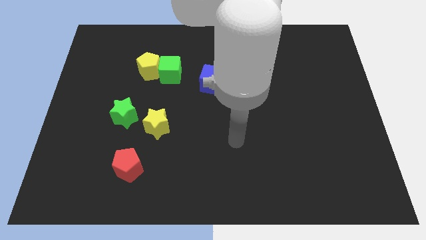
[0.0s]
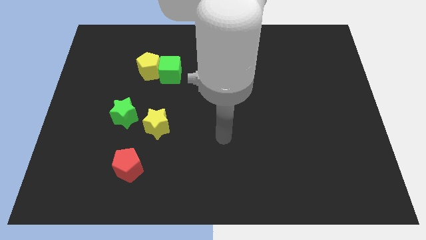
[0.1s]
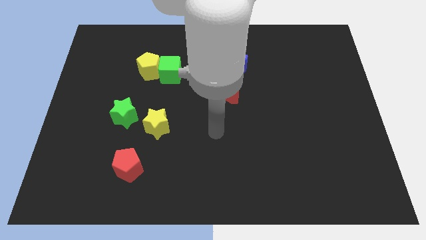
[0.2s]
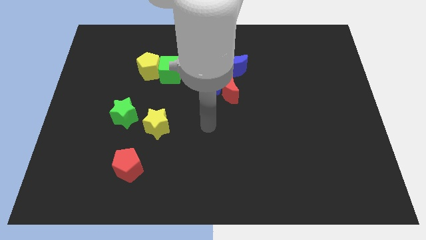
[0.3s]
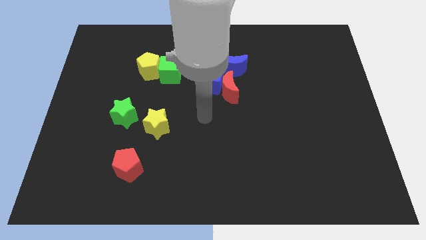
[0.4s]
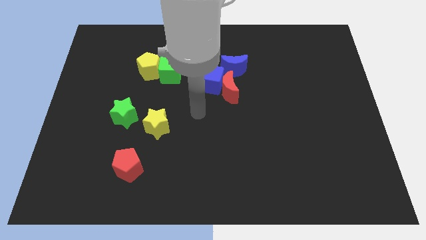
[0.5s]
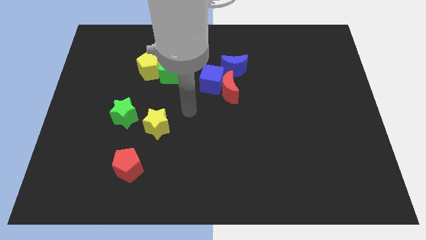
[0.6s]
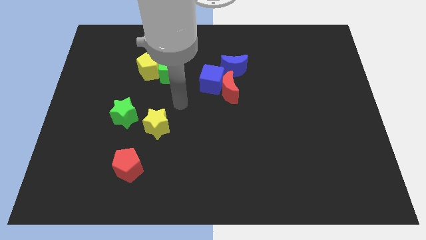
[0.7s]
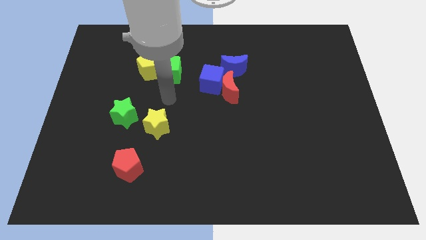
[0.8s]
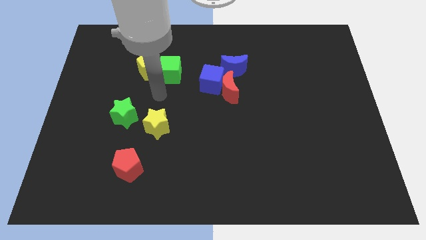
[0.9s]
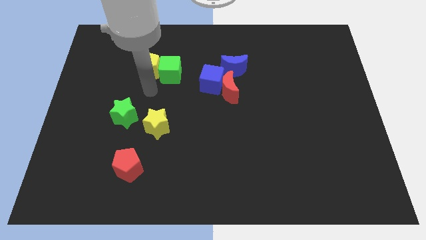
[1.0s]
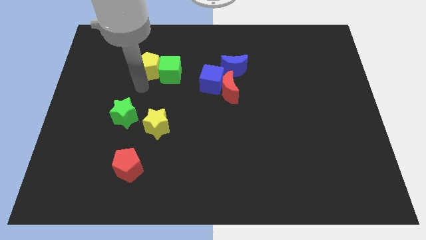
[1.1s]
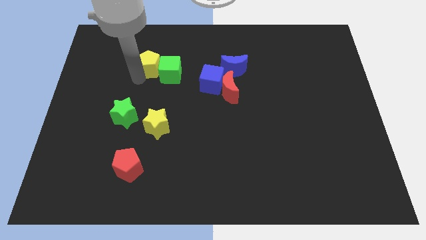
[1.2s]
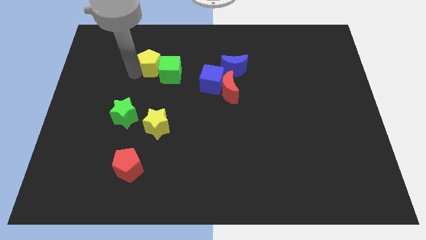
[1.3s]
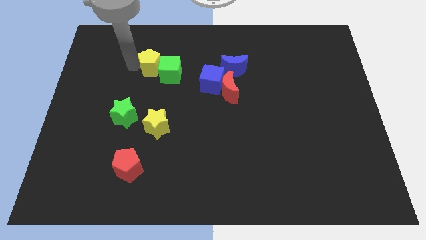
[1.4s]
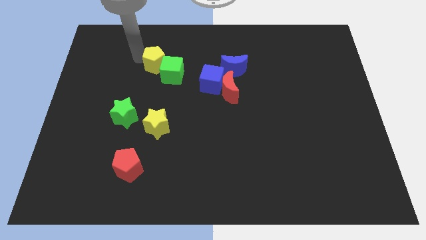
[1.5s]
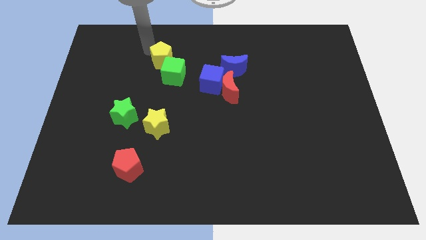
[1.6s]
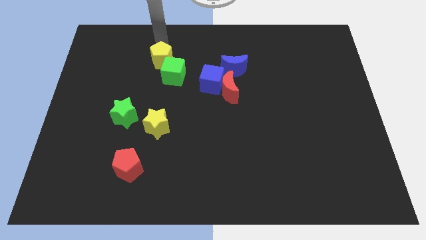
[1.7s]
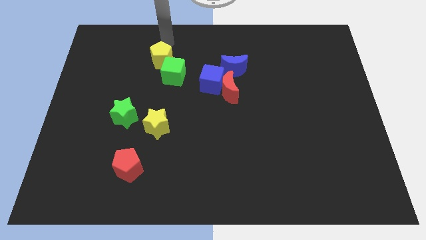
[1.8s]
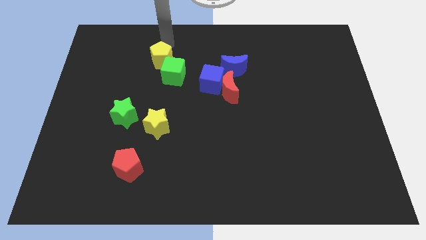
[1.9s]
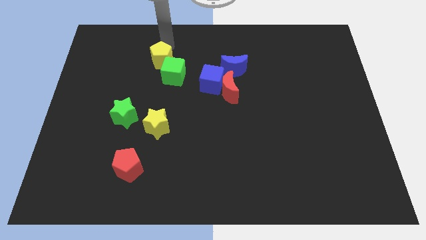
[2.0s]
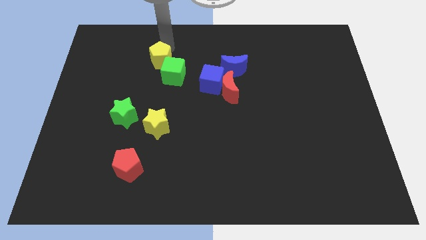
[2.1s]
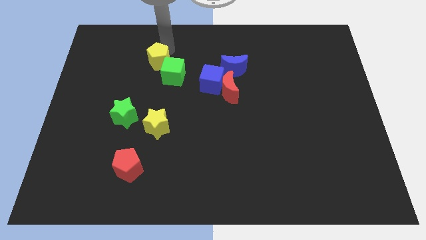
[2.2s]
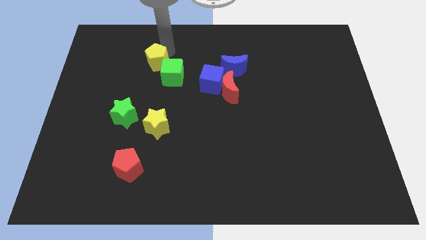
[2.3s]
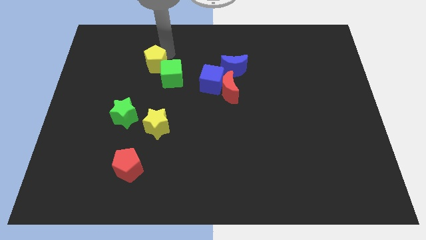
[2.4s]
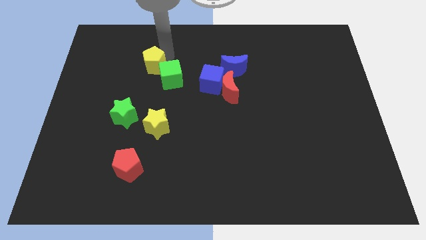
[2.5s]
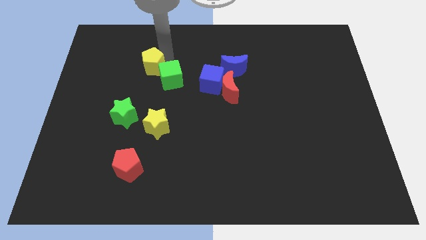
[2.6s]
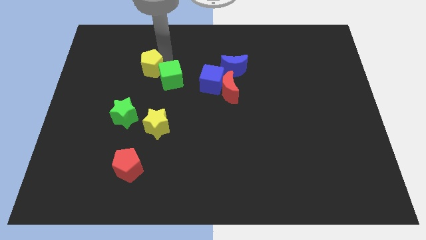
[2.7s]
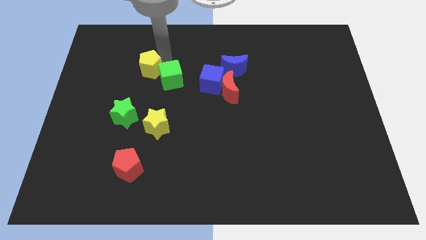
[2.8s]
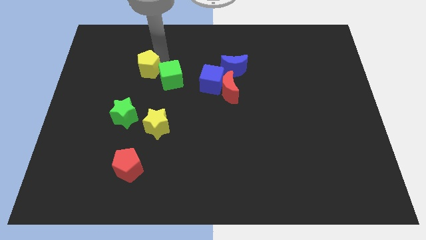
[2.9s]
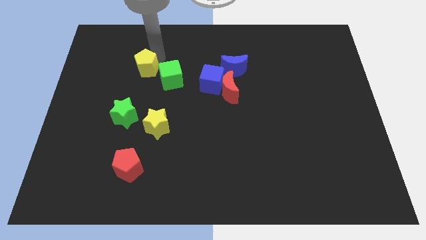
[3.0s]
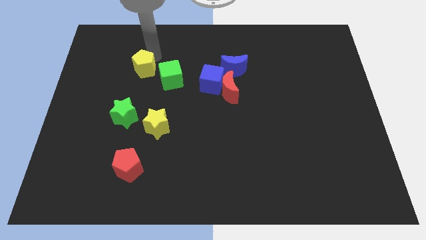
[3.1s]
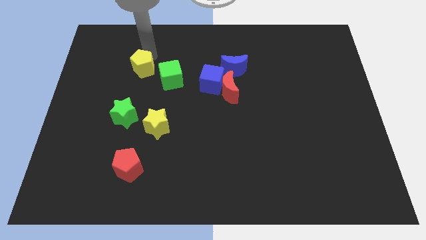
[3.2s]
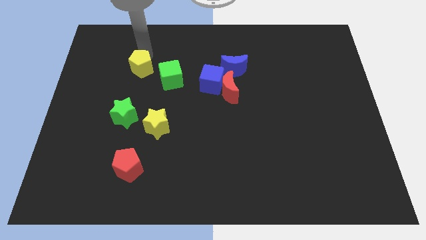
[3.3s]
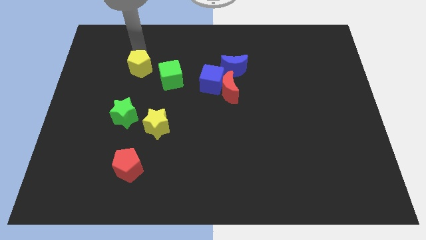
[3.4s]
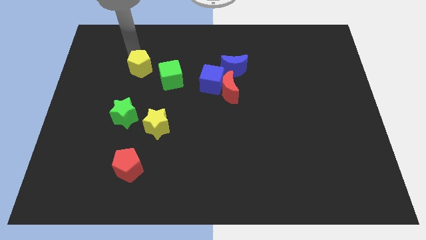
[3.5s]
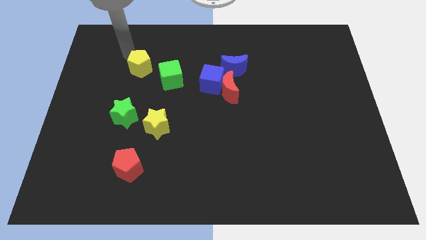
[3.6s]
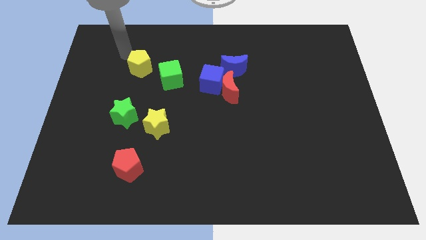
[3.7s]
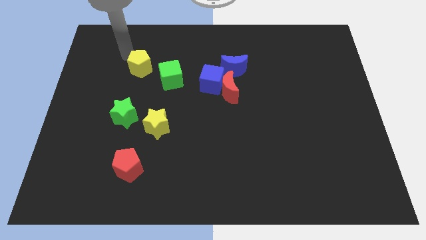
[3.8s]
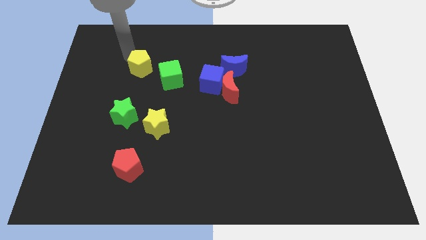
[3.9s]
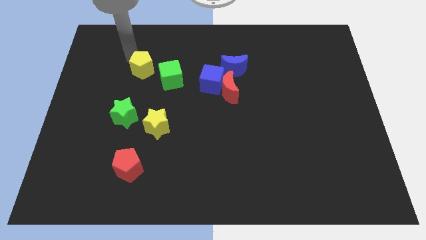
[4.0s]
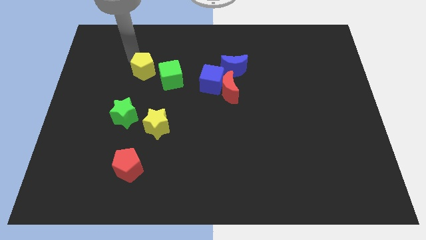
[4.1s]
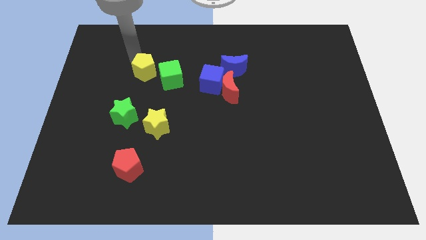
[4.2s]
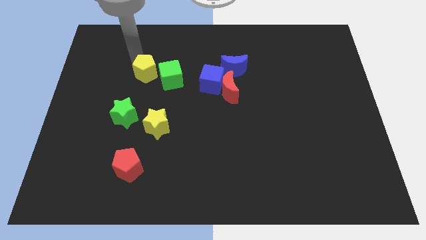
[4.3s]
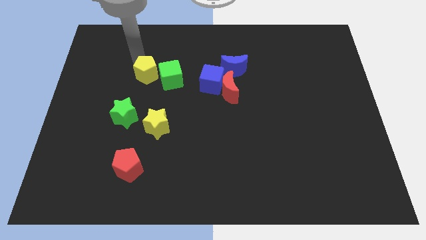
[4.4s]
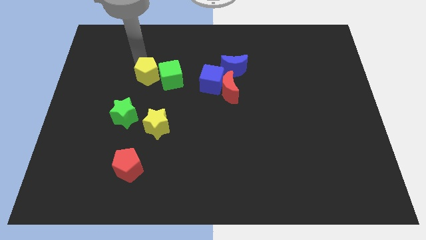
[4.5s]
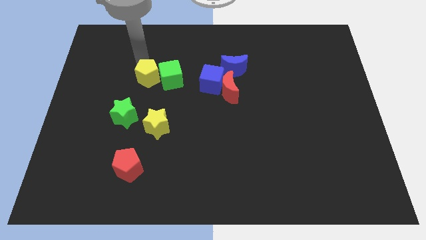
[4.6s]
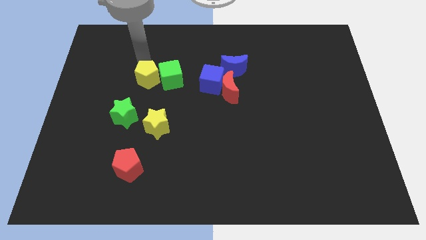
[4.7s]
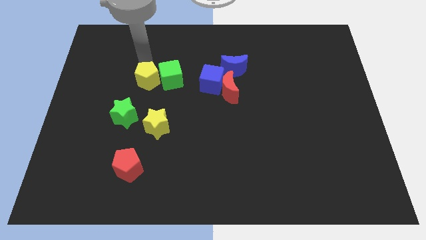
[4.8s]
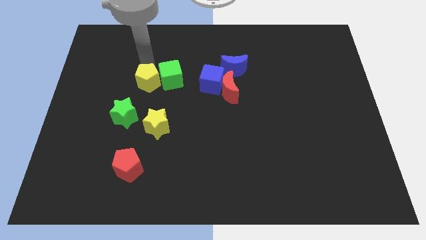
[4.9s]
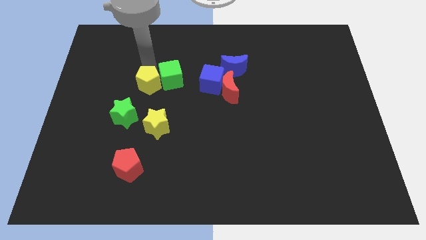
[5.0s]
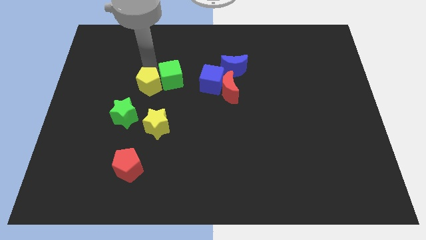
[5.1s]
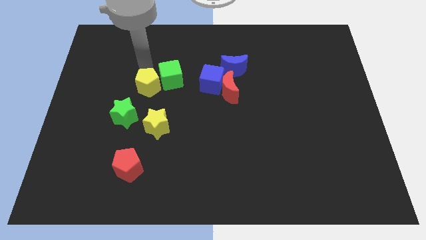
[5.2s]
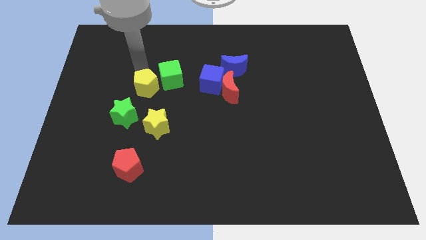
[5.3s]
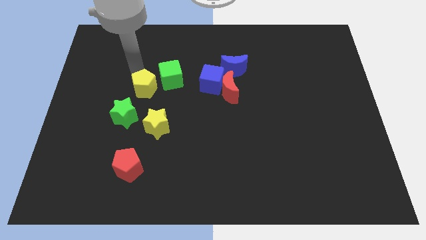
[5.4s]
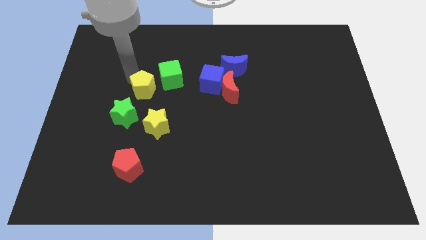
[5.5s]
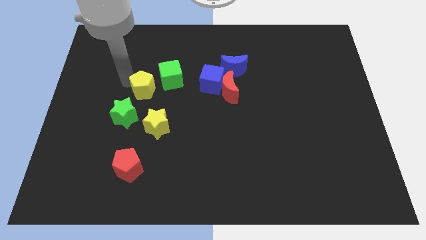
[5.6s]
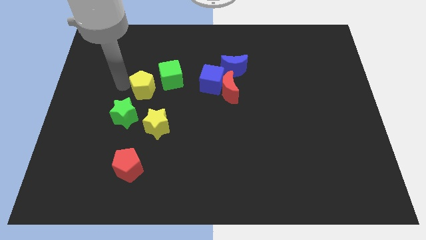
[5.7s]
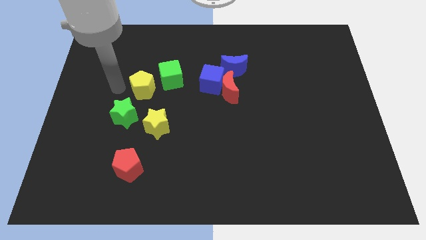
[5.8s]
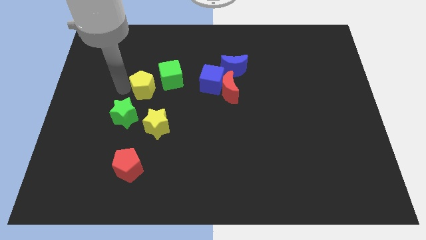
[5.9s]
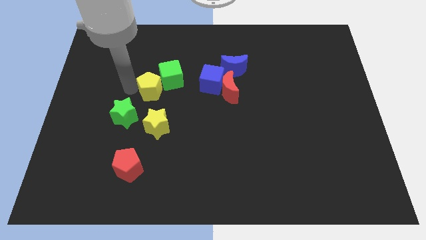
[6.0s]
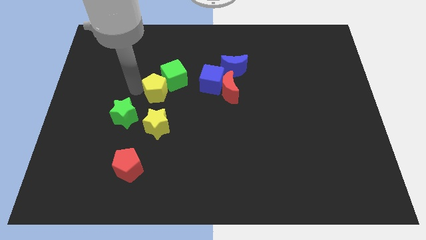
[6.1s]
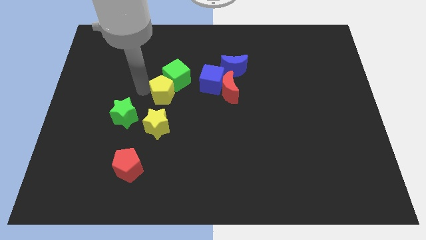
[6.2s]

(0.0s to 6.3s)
slightly push the yellow pentagon down and to the right

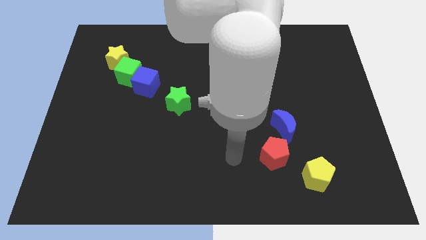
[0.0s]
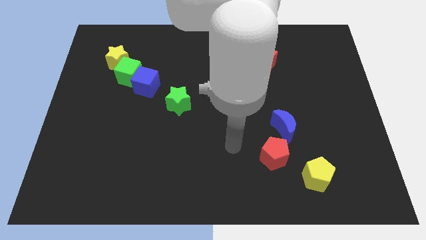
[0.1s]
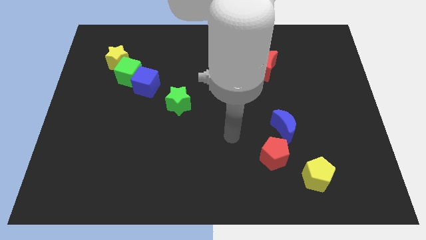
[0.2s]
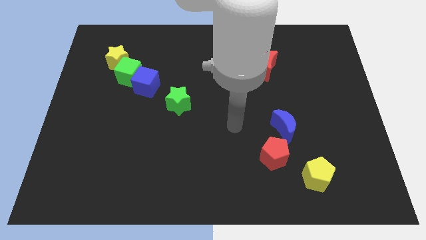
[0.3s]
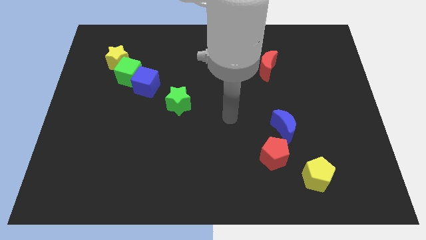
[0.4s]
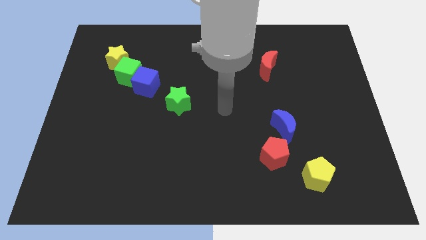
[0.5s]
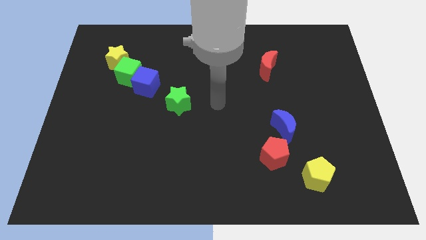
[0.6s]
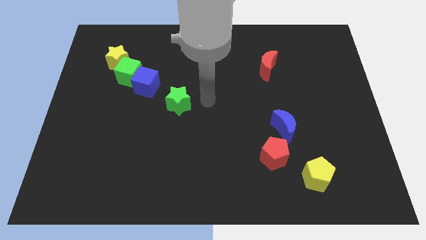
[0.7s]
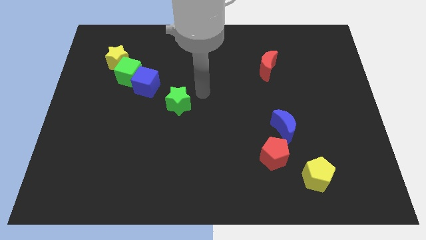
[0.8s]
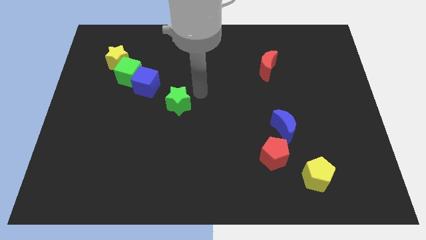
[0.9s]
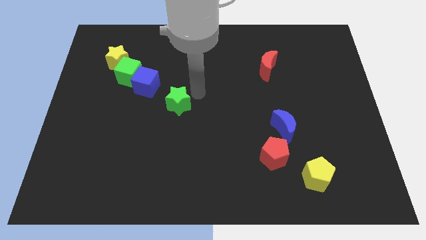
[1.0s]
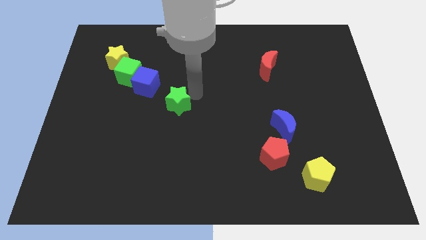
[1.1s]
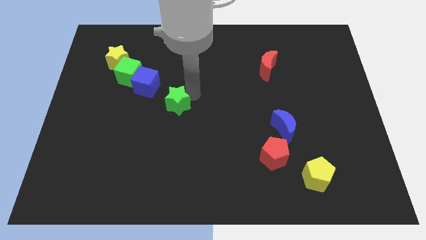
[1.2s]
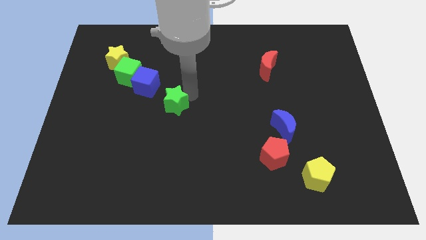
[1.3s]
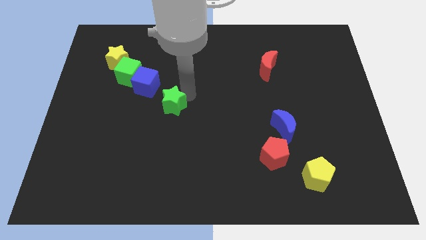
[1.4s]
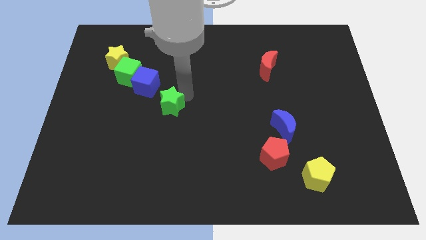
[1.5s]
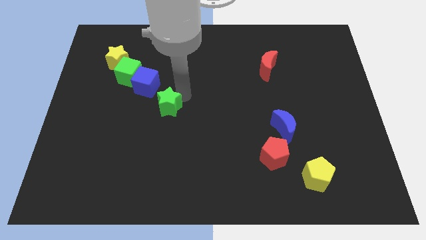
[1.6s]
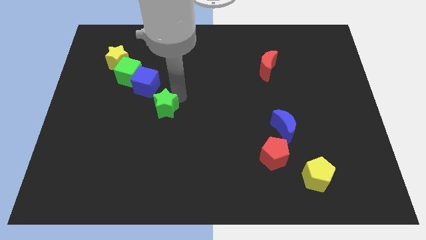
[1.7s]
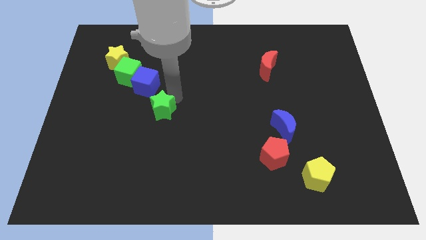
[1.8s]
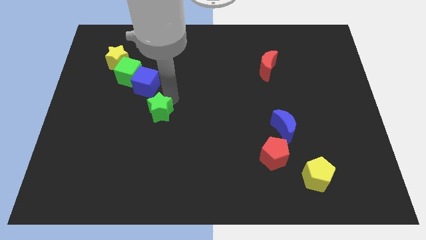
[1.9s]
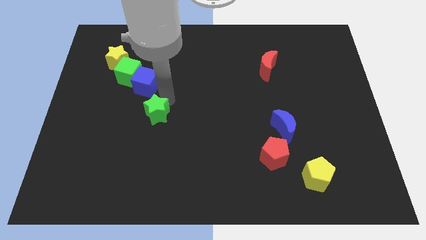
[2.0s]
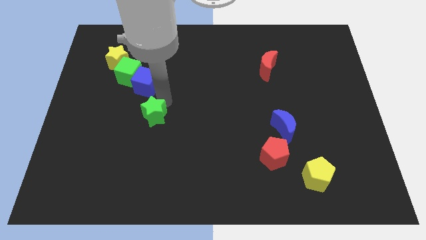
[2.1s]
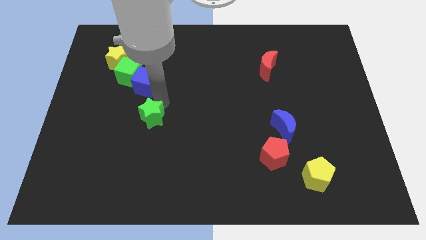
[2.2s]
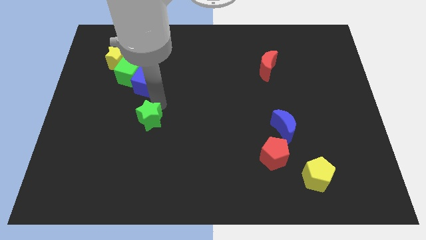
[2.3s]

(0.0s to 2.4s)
slide the green star a little bit downwards and to the left
